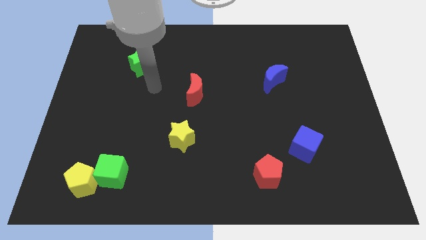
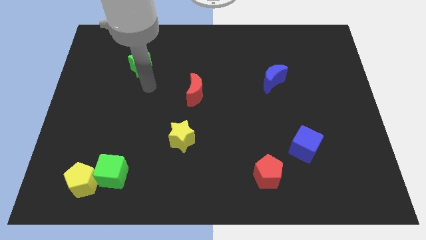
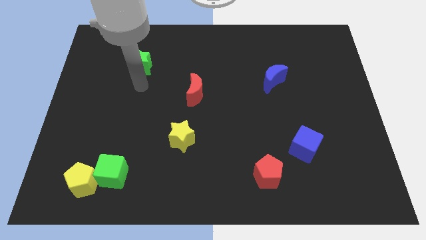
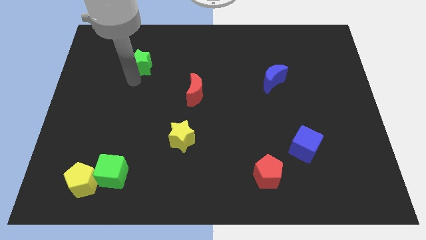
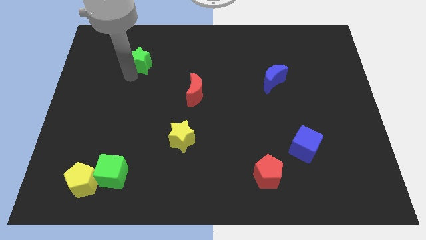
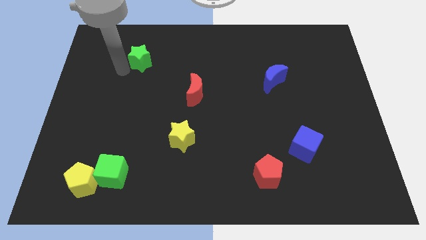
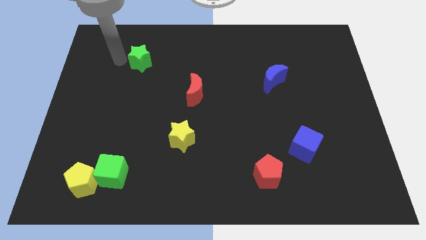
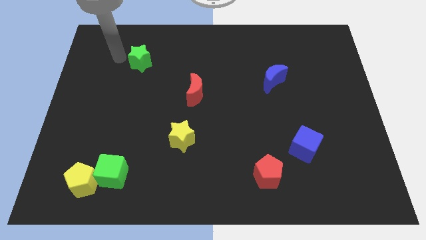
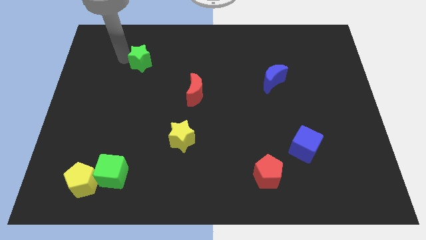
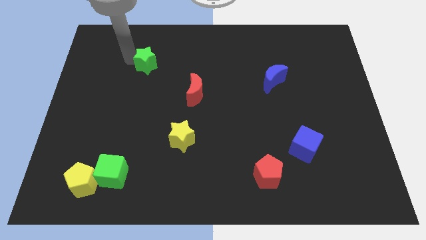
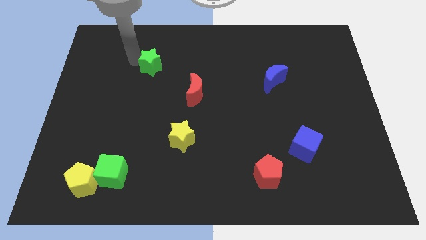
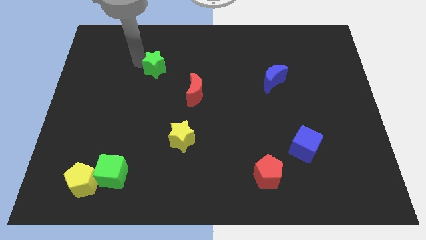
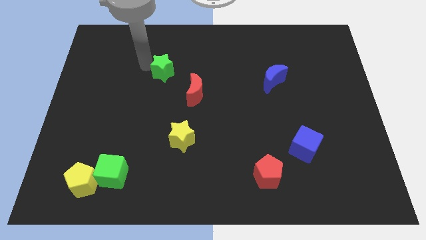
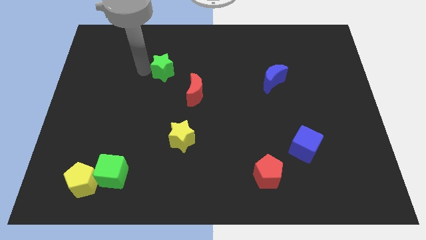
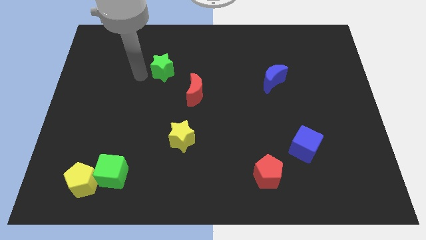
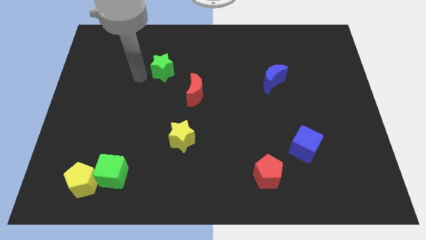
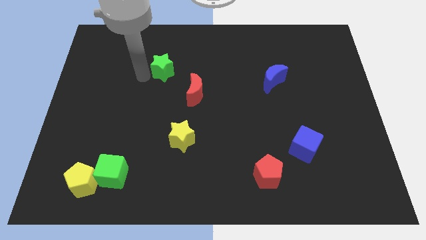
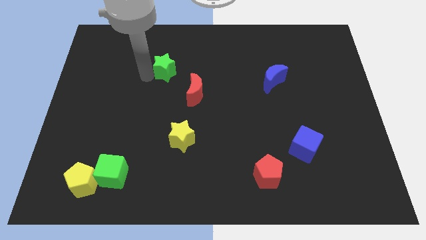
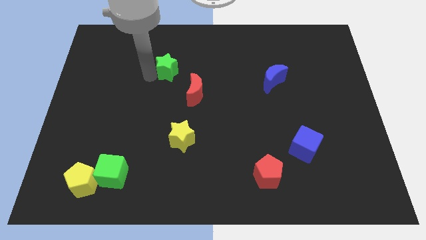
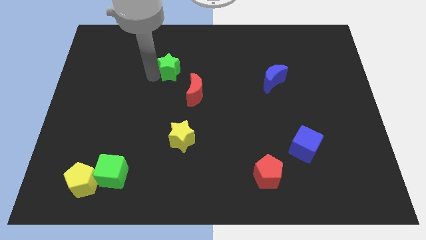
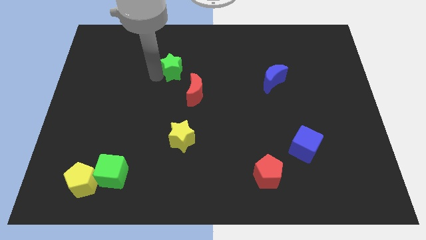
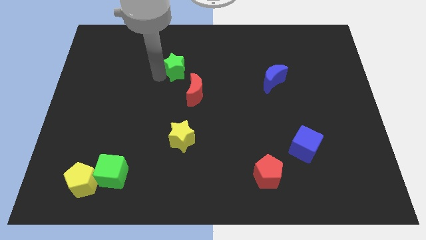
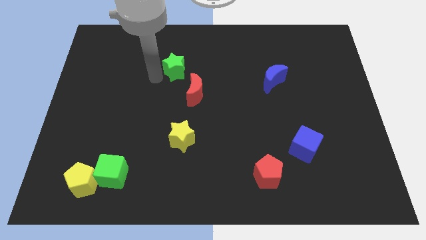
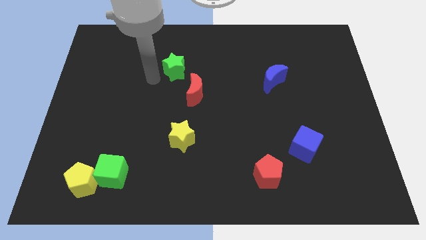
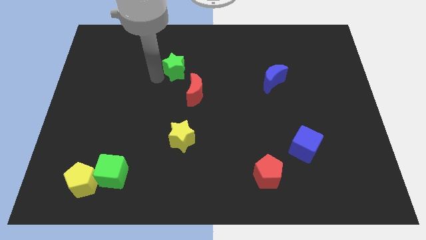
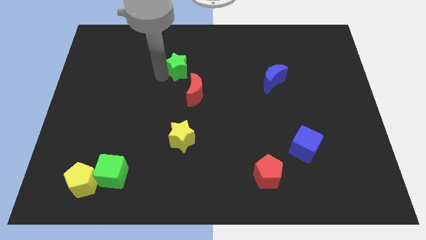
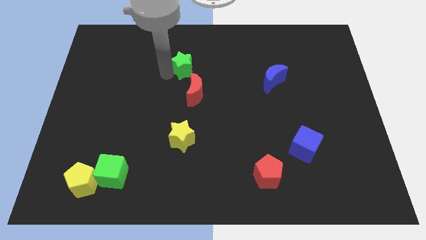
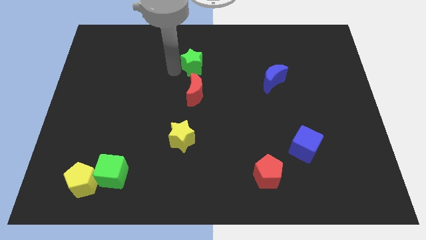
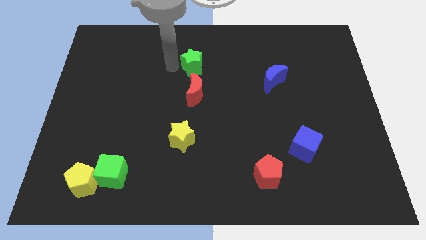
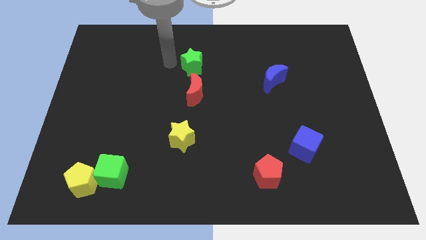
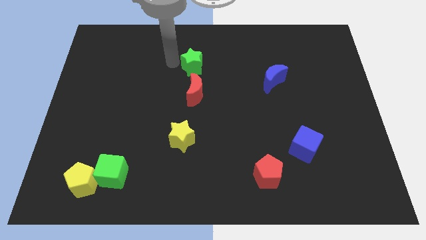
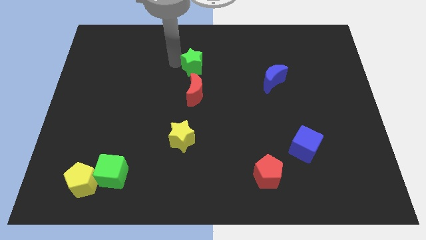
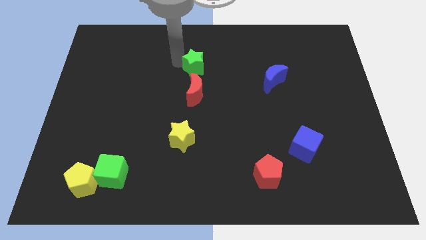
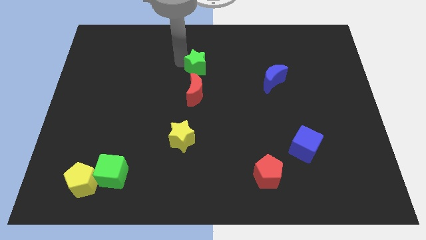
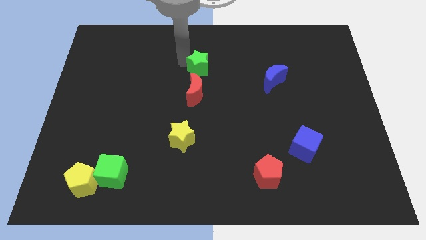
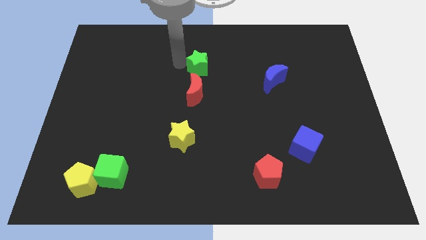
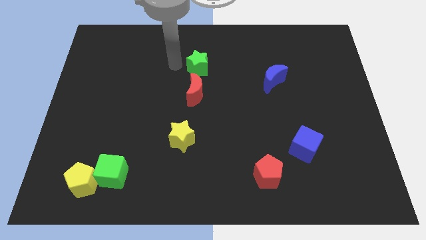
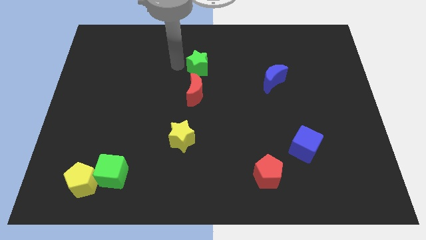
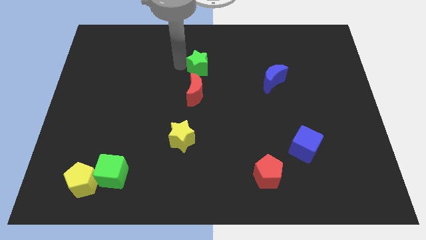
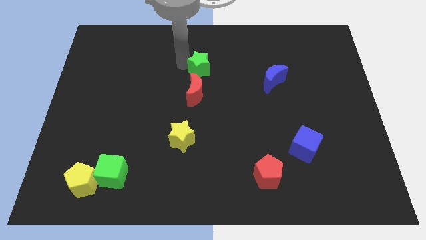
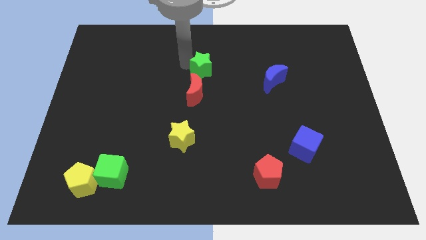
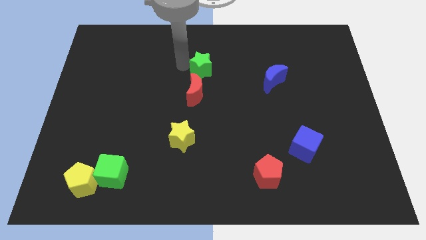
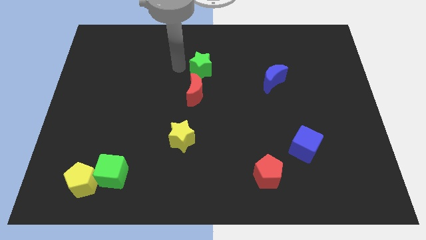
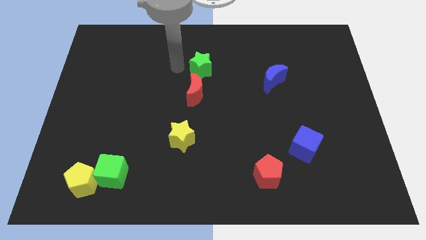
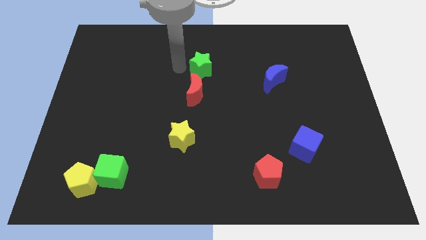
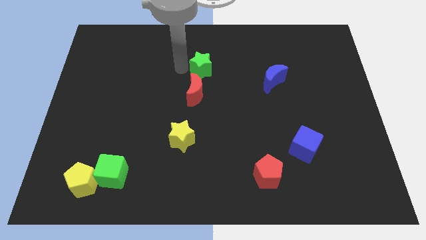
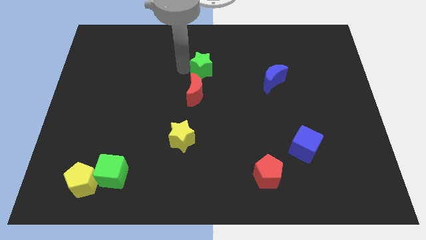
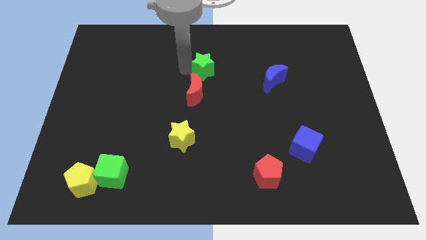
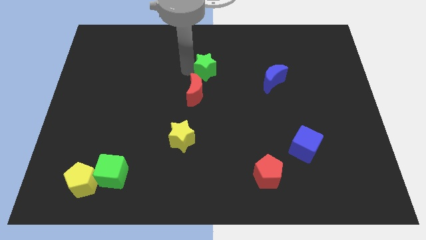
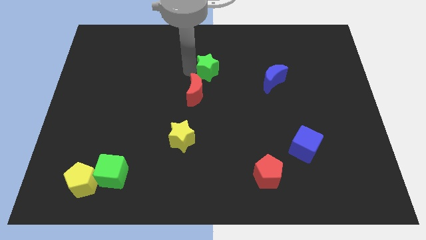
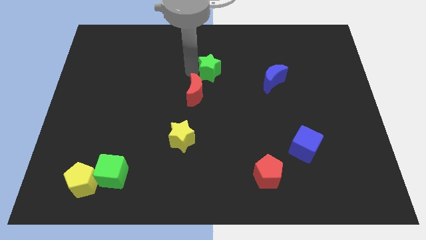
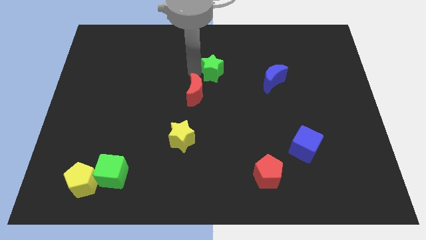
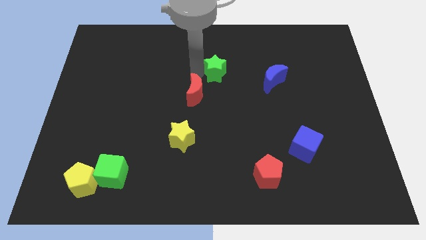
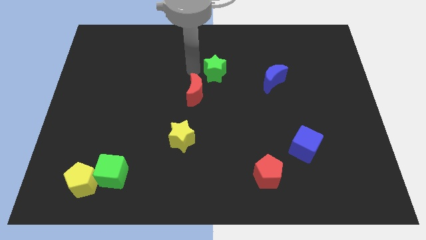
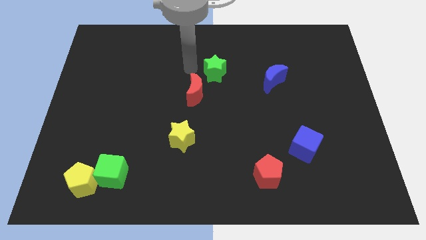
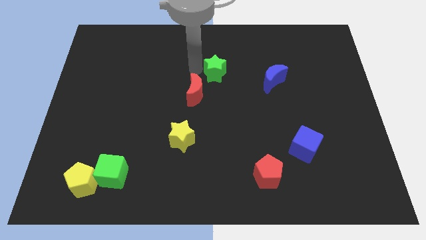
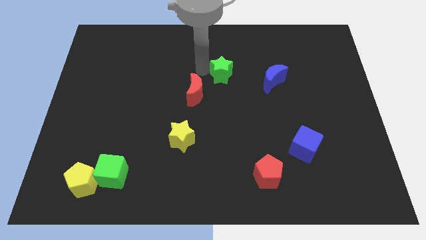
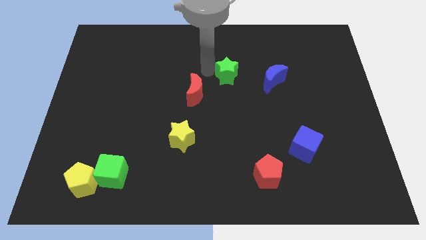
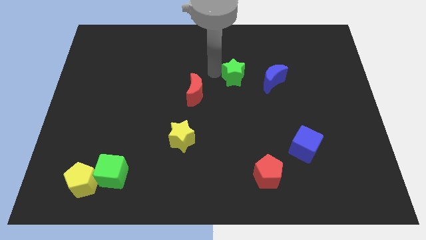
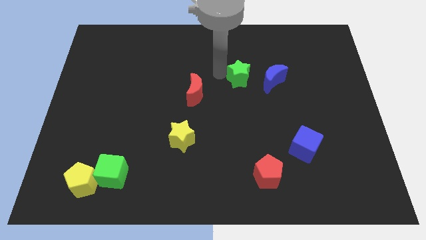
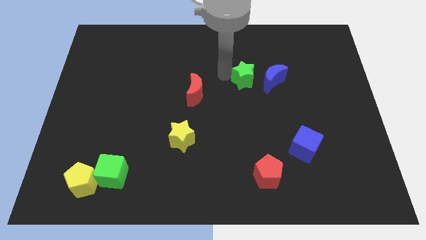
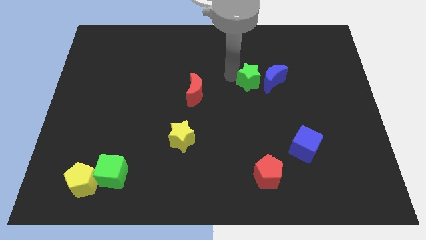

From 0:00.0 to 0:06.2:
put the green star next to the blue moon
